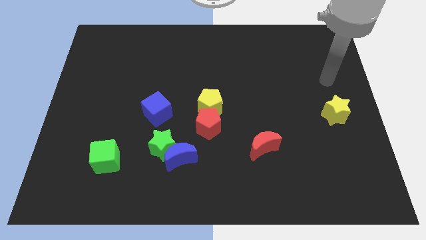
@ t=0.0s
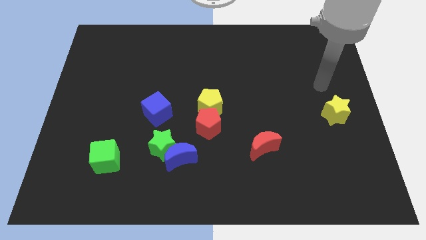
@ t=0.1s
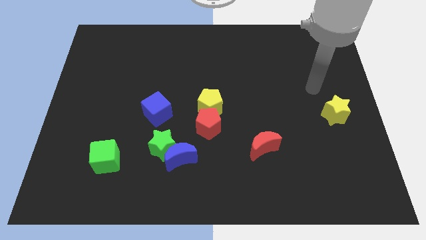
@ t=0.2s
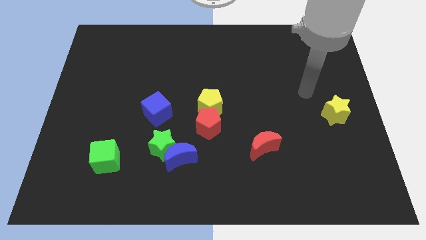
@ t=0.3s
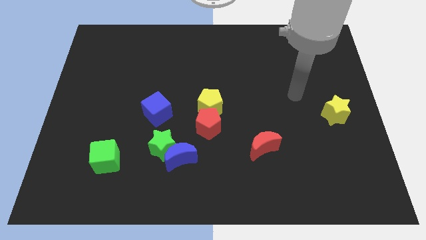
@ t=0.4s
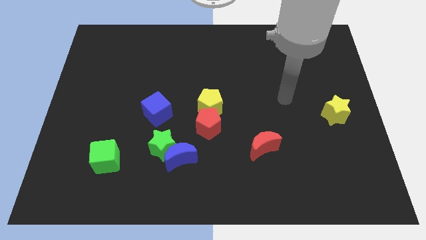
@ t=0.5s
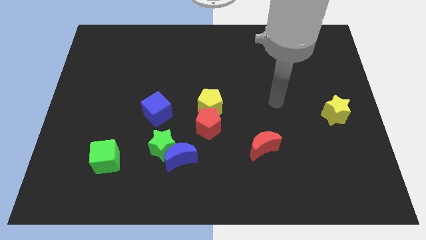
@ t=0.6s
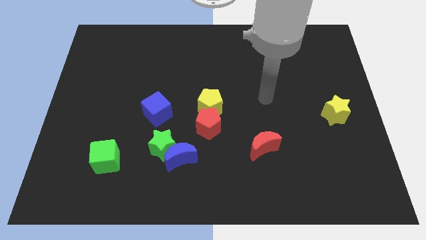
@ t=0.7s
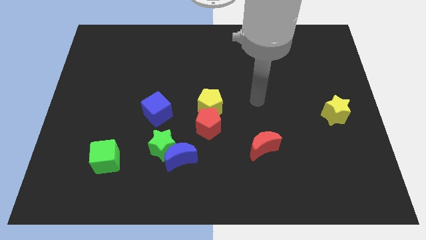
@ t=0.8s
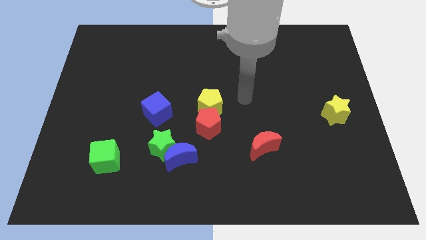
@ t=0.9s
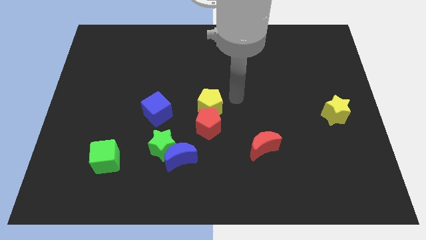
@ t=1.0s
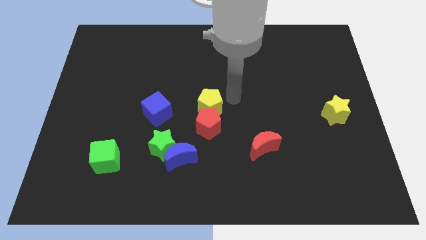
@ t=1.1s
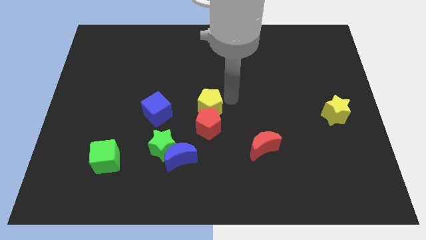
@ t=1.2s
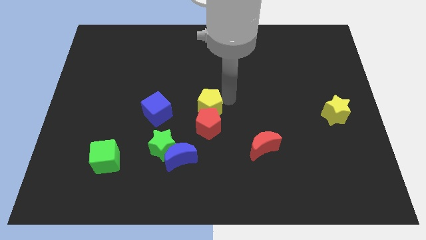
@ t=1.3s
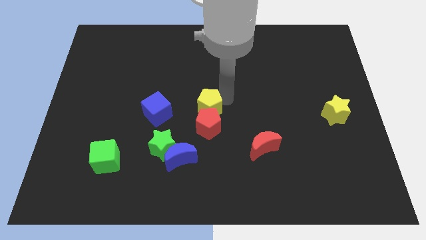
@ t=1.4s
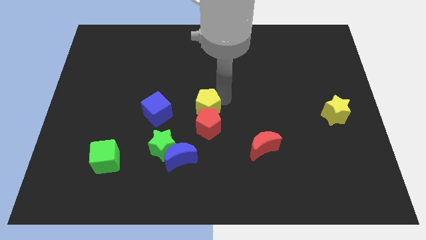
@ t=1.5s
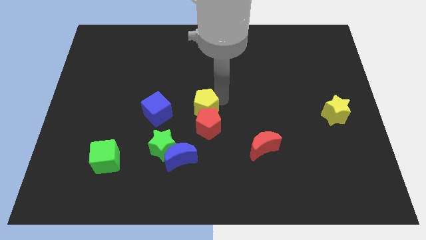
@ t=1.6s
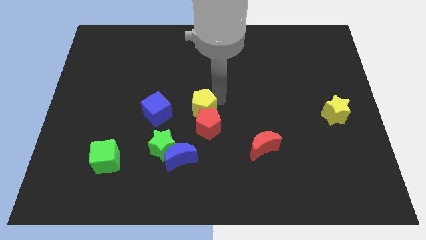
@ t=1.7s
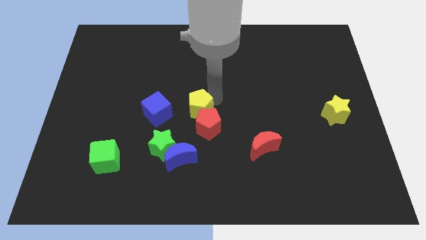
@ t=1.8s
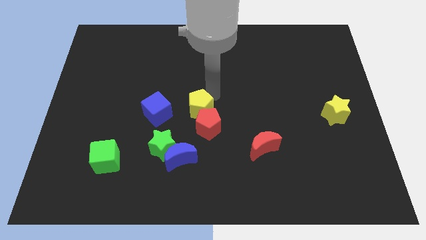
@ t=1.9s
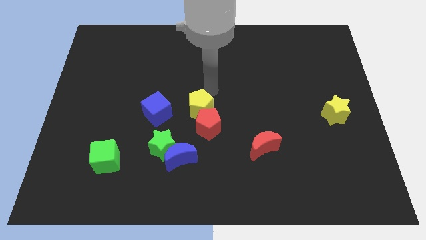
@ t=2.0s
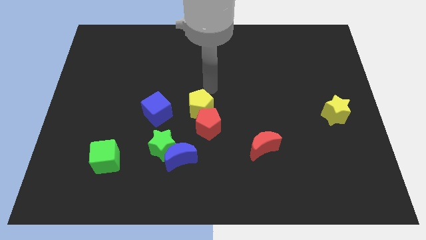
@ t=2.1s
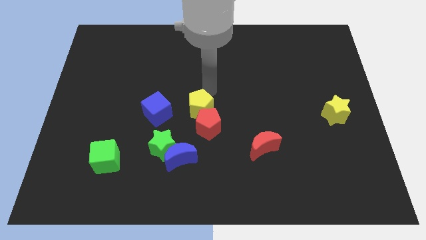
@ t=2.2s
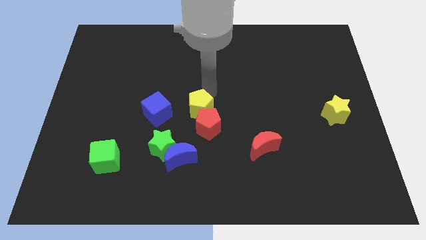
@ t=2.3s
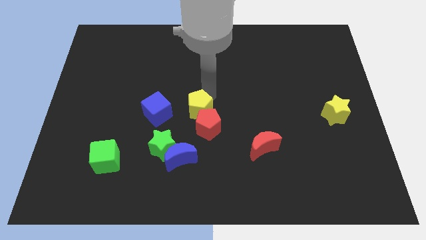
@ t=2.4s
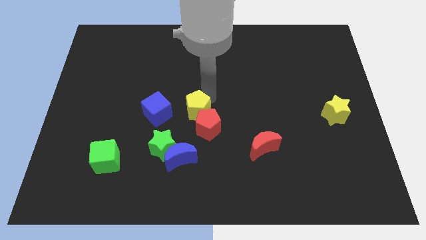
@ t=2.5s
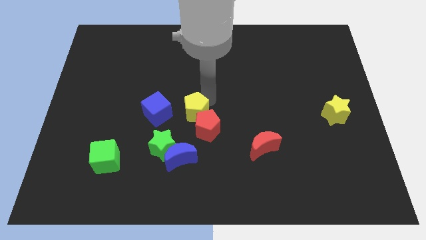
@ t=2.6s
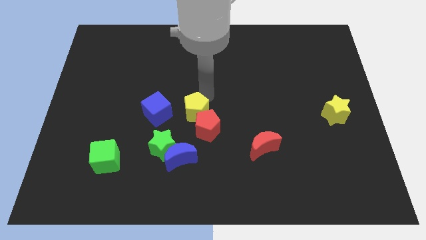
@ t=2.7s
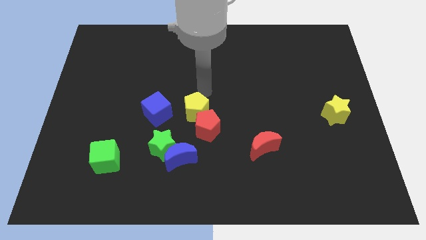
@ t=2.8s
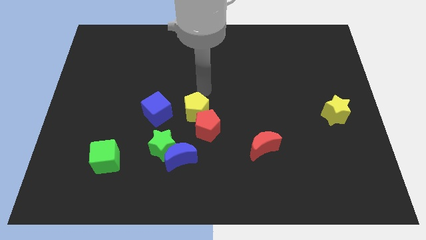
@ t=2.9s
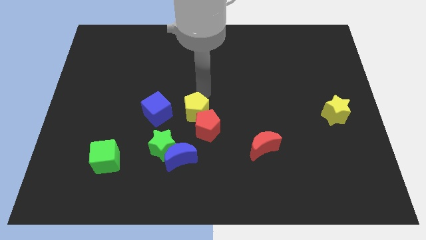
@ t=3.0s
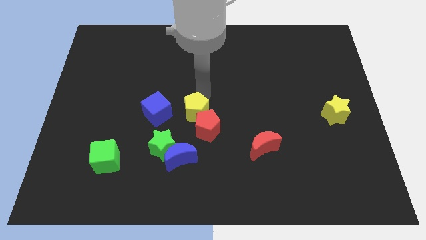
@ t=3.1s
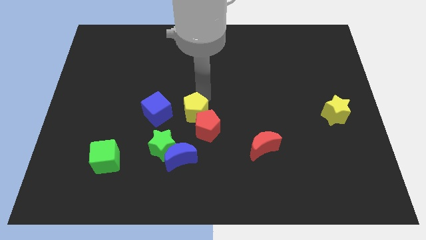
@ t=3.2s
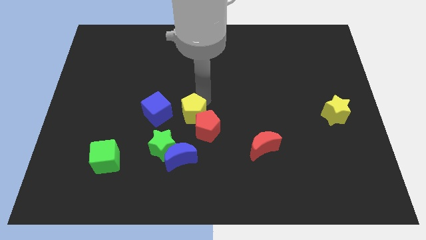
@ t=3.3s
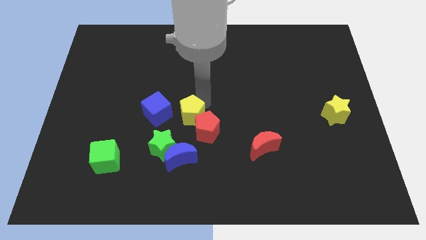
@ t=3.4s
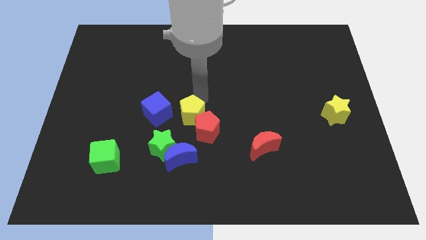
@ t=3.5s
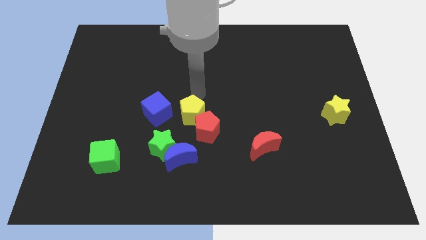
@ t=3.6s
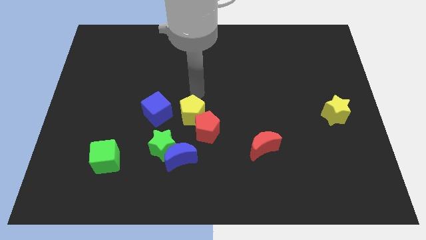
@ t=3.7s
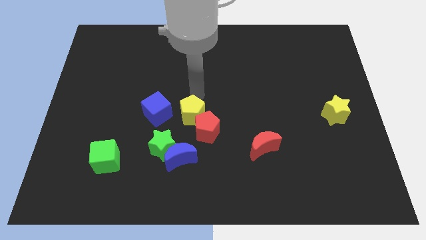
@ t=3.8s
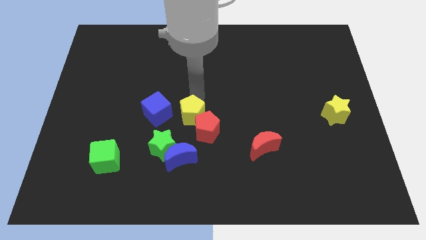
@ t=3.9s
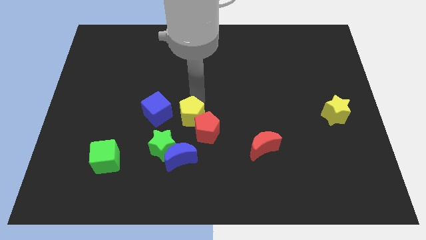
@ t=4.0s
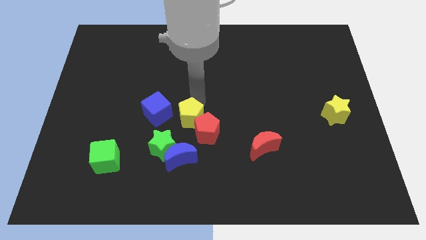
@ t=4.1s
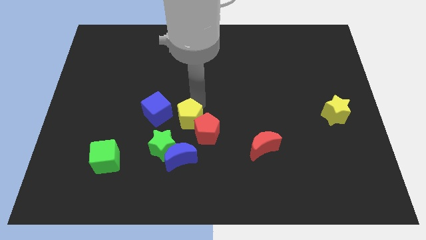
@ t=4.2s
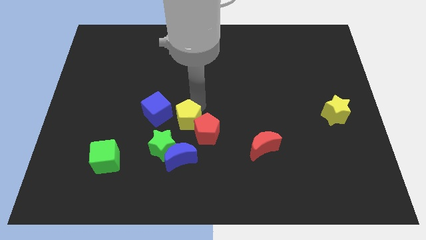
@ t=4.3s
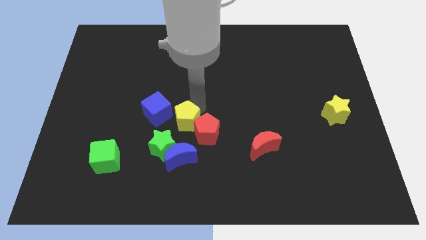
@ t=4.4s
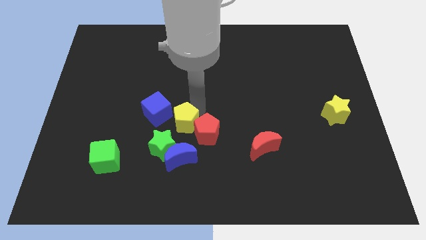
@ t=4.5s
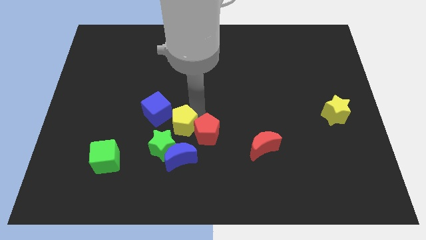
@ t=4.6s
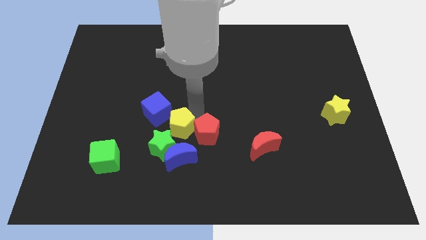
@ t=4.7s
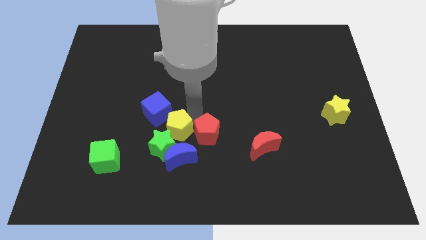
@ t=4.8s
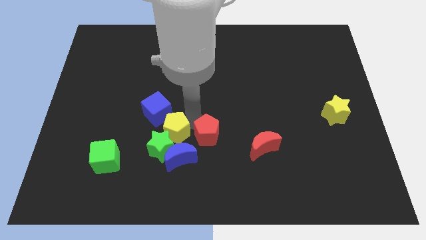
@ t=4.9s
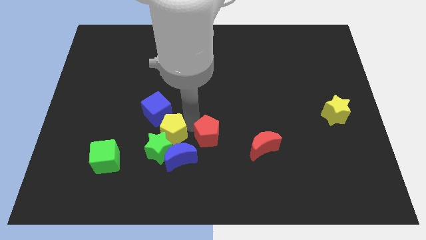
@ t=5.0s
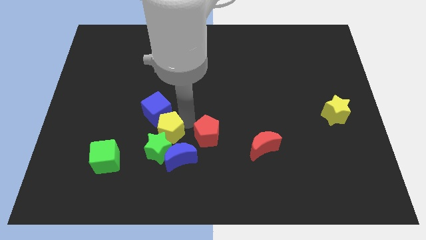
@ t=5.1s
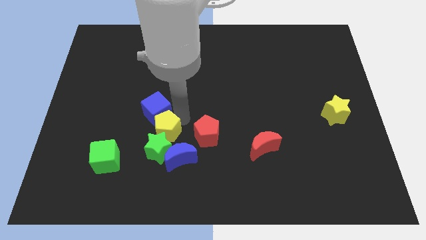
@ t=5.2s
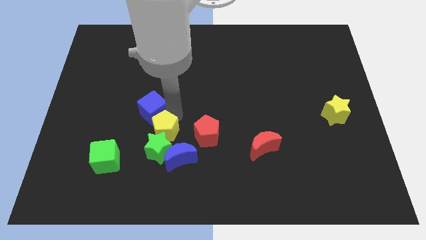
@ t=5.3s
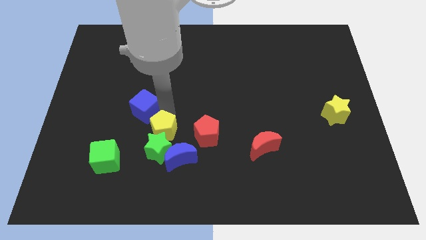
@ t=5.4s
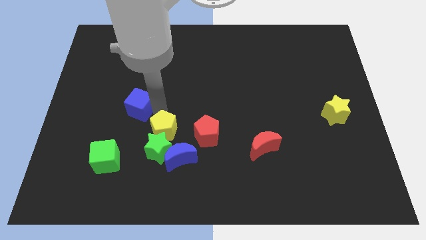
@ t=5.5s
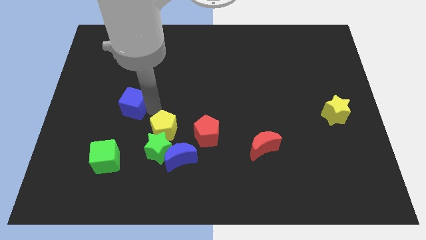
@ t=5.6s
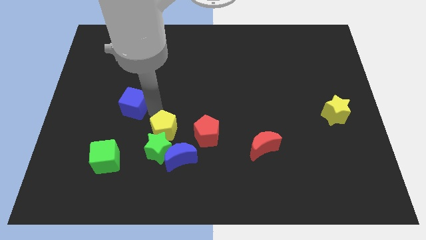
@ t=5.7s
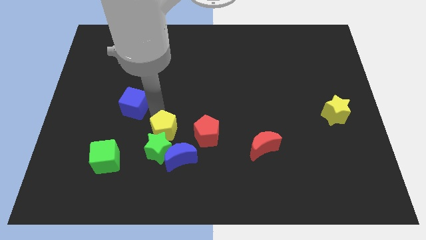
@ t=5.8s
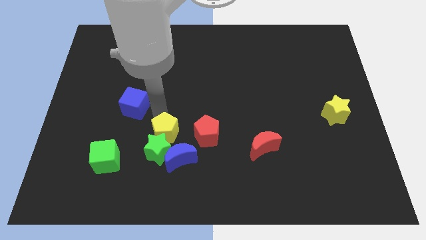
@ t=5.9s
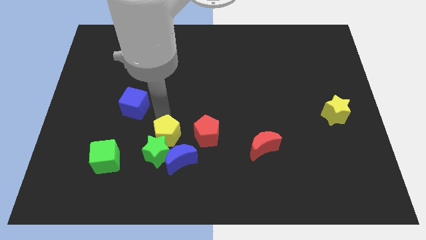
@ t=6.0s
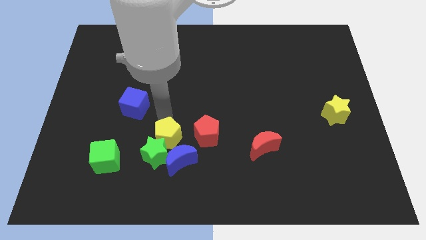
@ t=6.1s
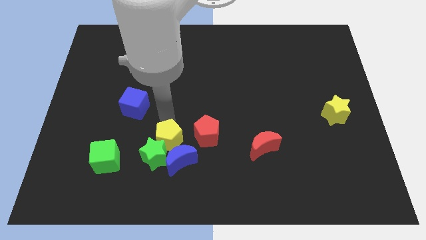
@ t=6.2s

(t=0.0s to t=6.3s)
move the yellow pentagon to the blue moon

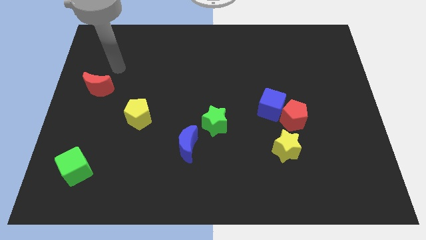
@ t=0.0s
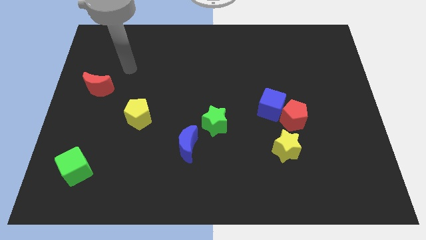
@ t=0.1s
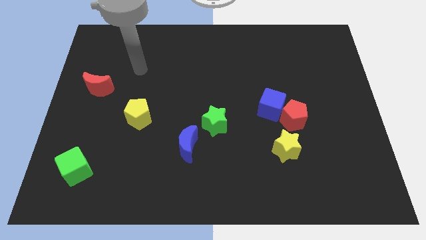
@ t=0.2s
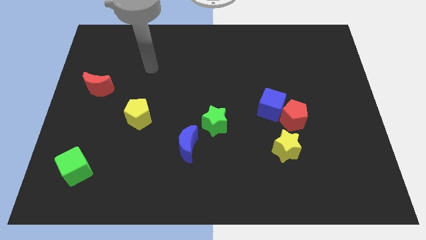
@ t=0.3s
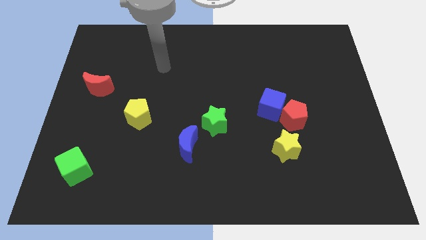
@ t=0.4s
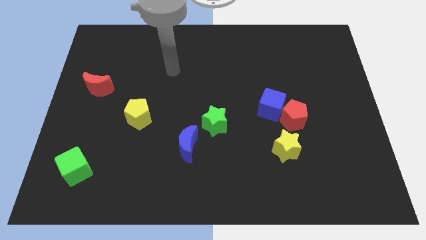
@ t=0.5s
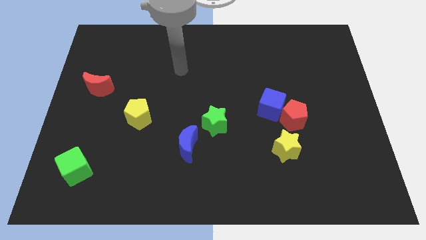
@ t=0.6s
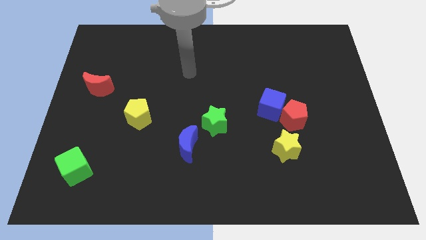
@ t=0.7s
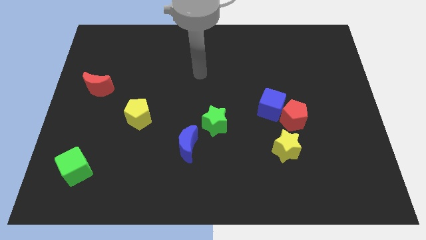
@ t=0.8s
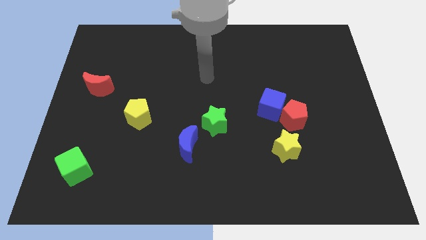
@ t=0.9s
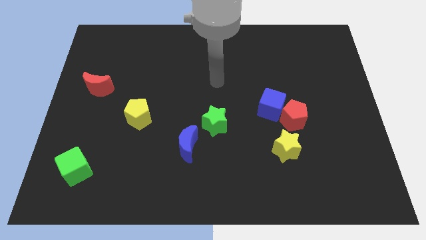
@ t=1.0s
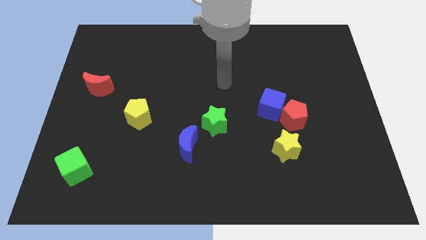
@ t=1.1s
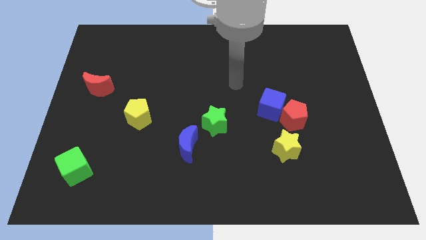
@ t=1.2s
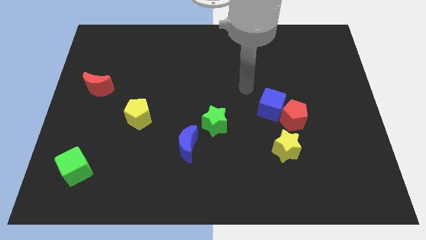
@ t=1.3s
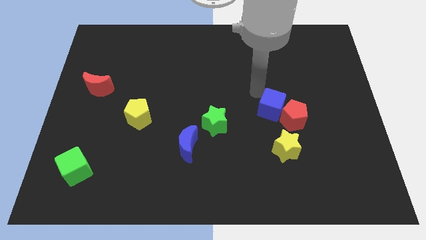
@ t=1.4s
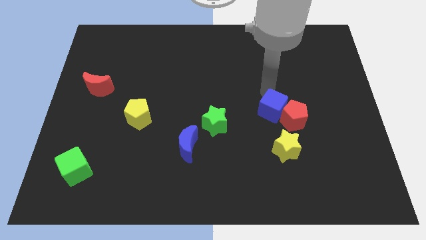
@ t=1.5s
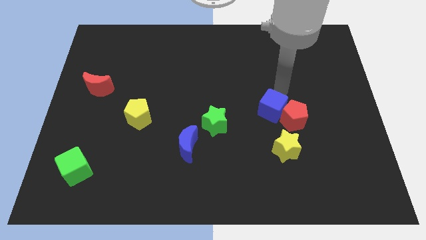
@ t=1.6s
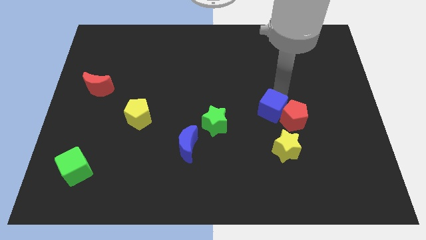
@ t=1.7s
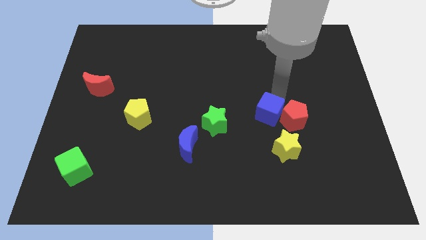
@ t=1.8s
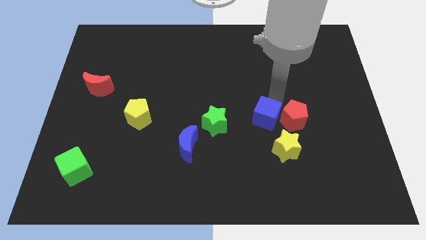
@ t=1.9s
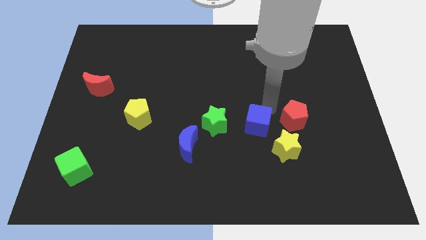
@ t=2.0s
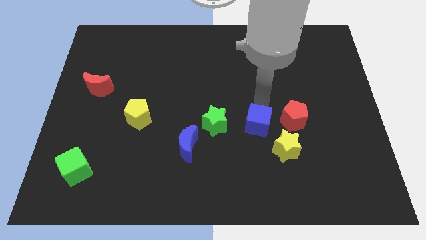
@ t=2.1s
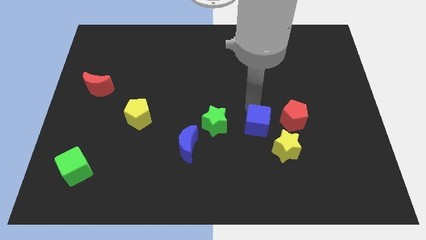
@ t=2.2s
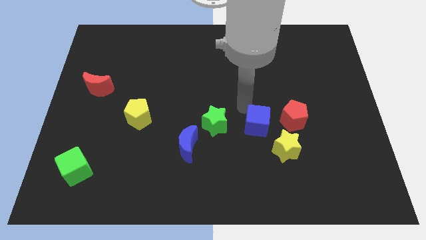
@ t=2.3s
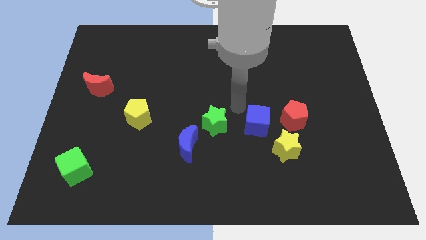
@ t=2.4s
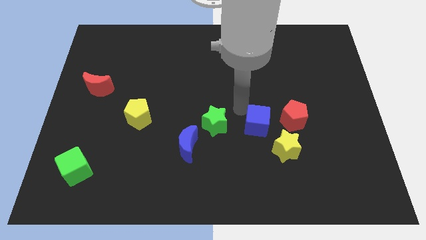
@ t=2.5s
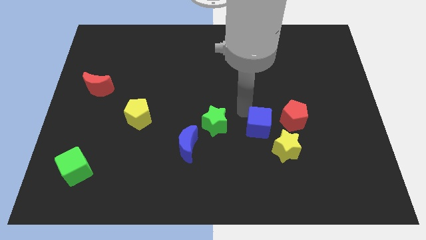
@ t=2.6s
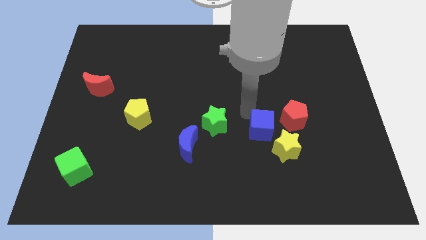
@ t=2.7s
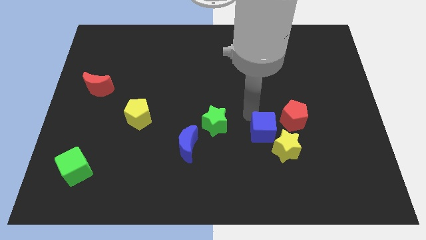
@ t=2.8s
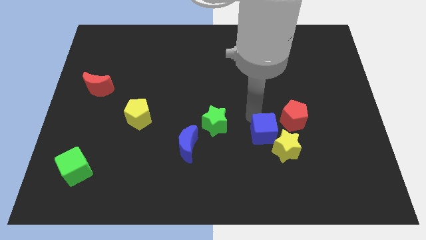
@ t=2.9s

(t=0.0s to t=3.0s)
slide the blue cube to the yellow star
